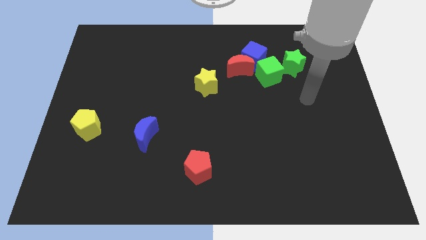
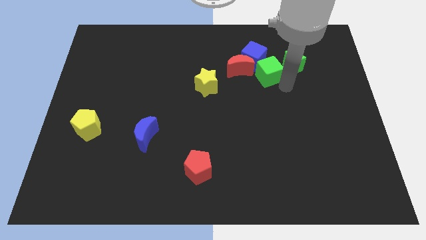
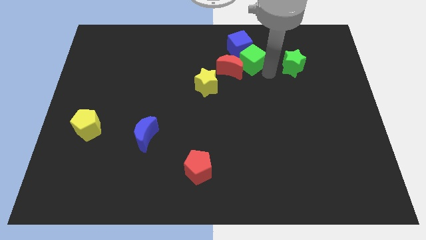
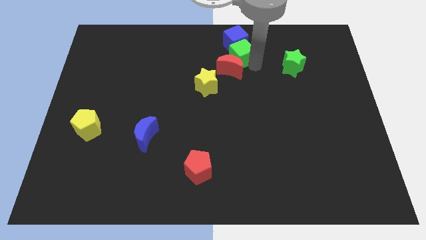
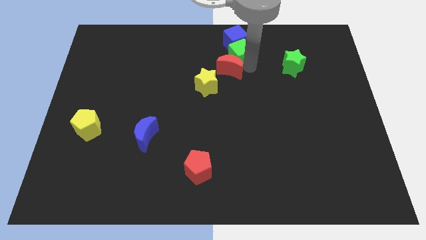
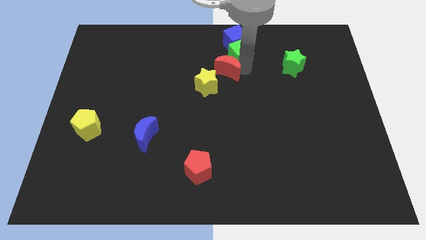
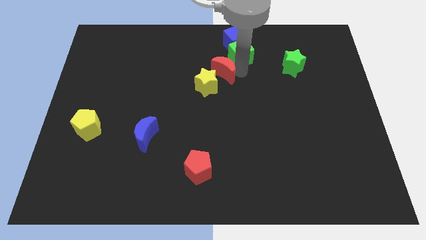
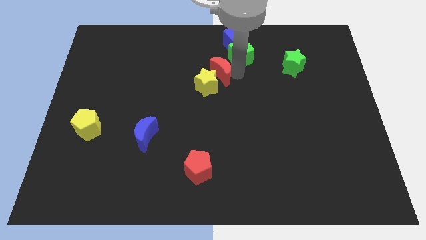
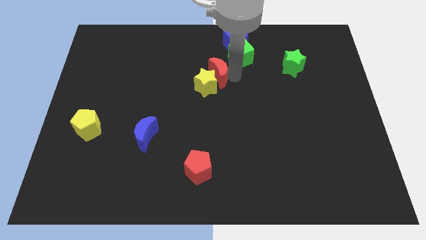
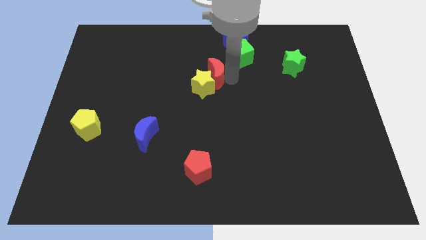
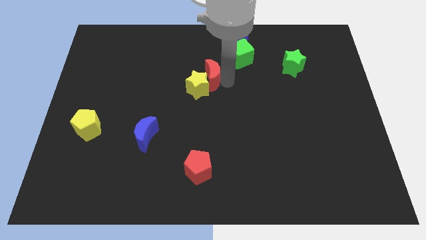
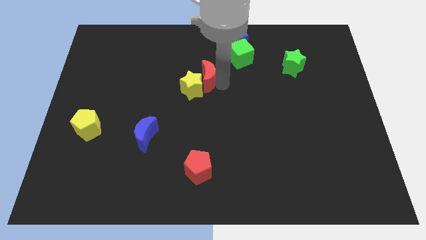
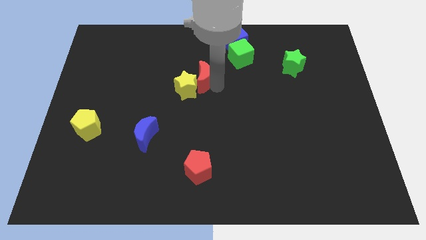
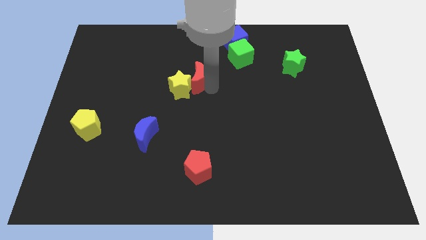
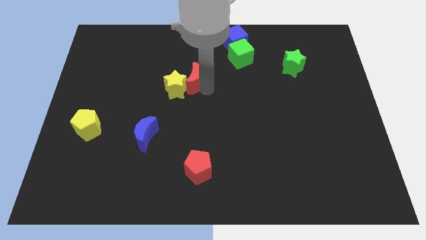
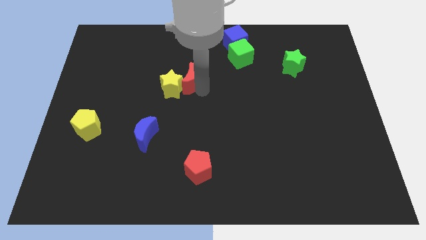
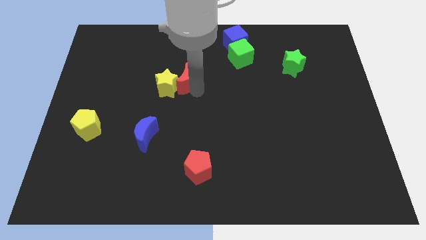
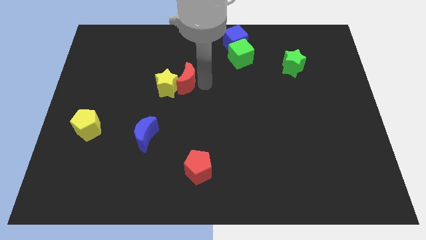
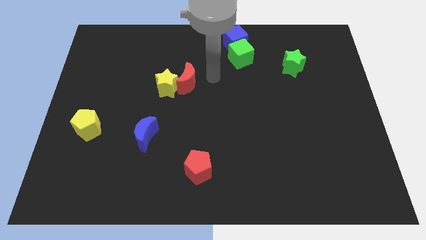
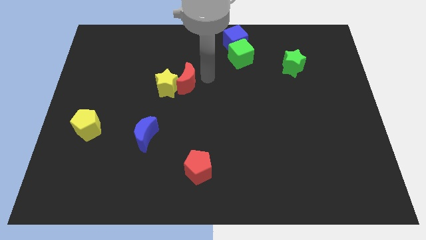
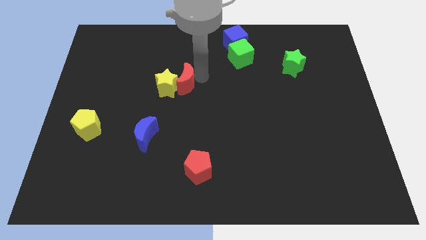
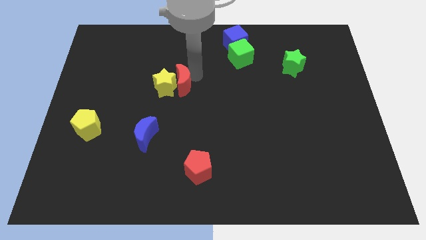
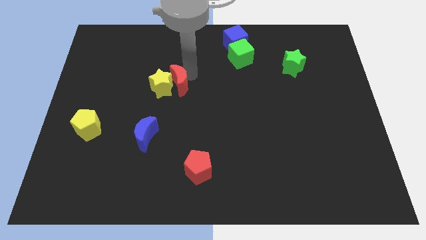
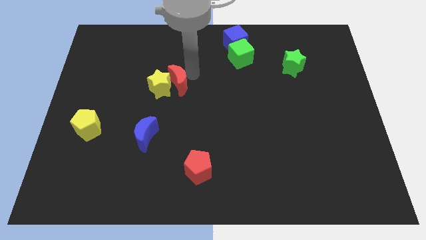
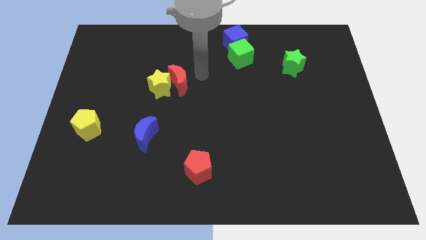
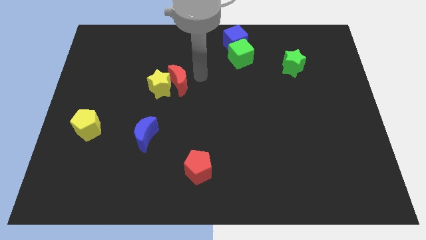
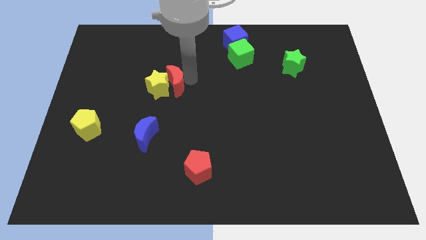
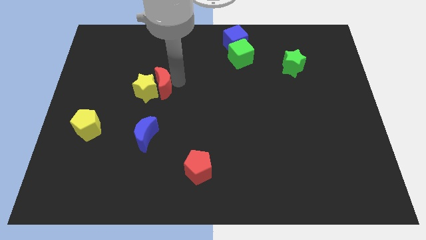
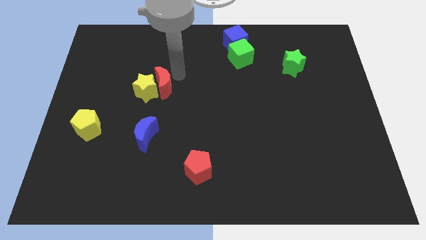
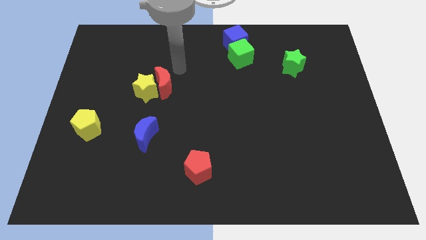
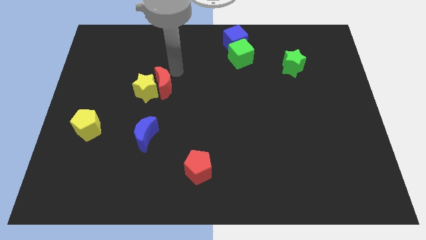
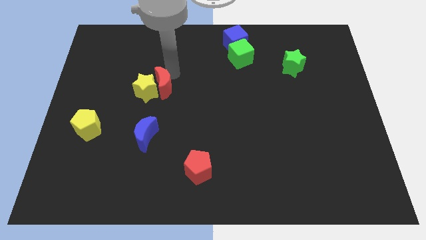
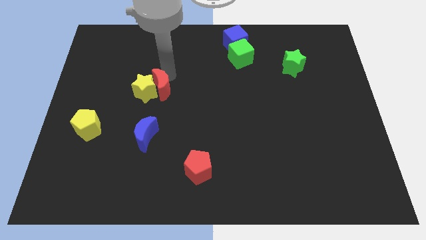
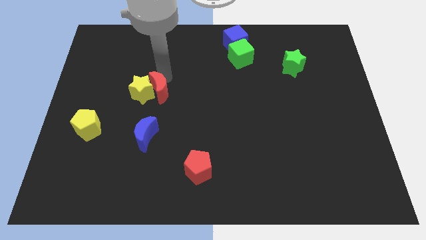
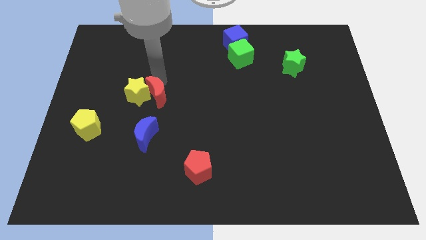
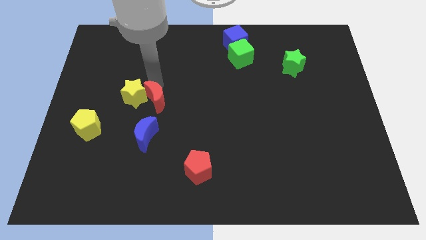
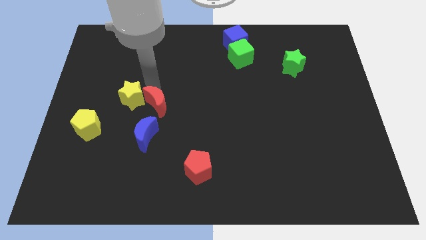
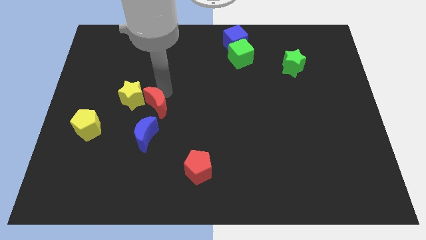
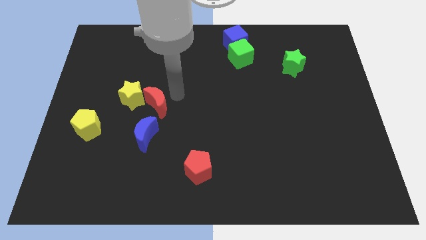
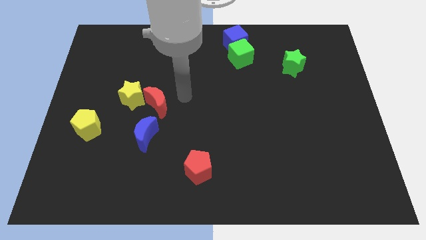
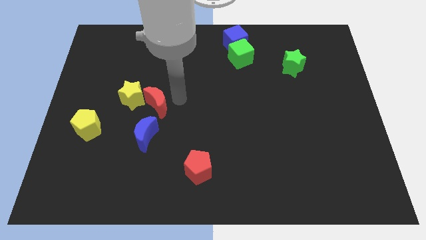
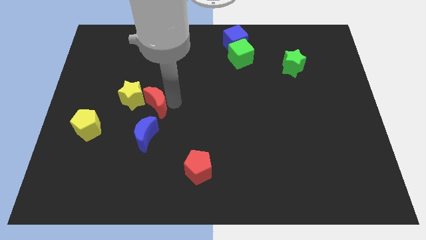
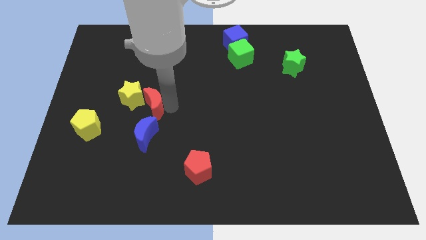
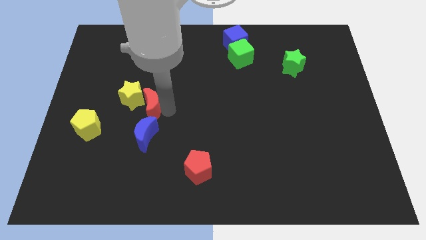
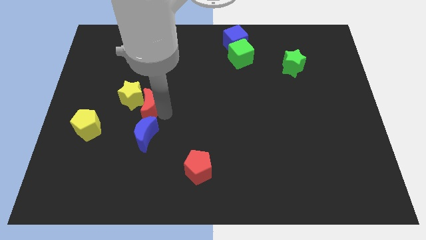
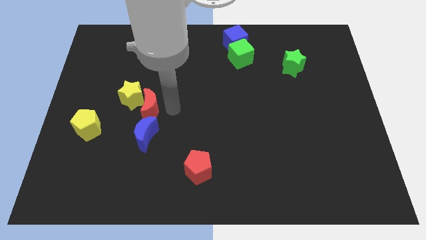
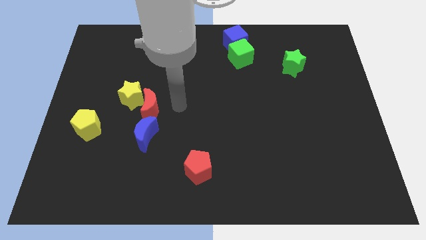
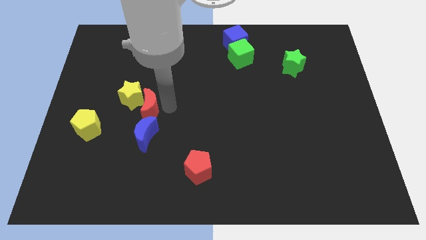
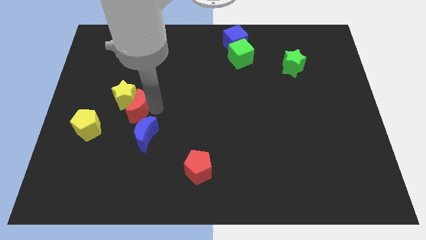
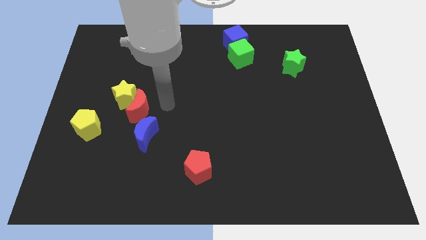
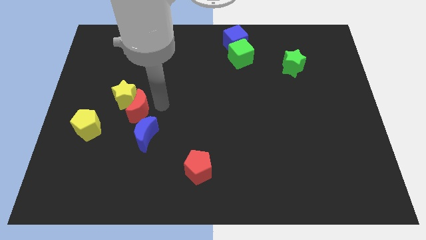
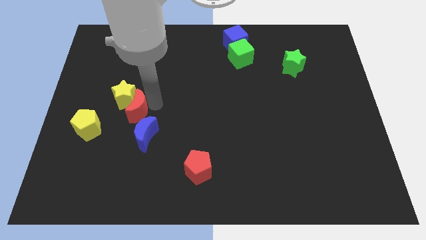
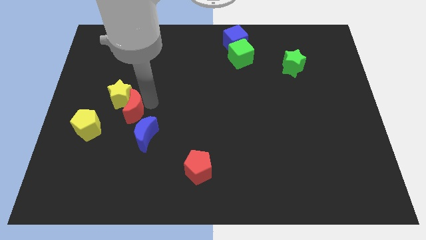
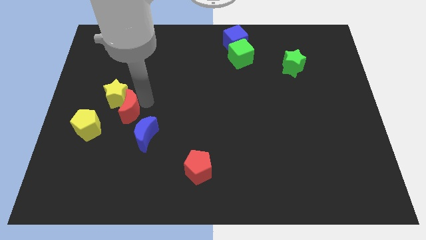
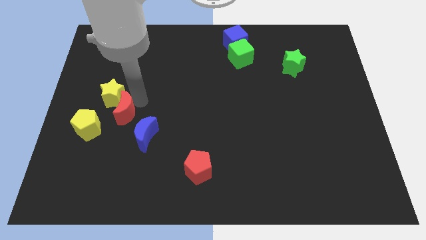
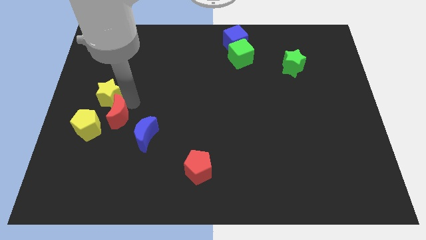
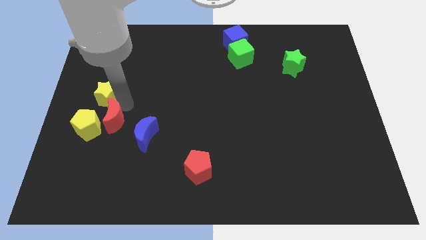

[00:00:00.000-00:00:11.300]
move the red moon towards the yellow pentagon

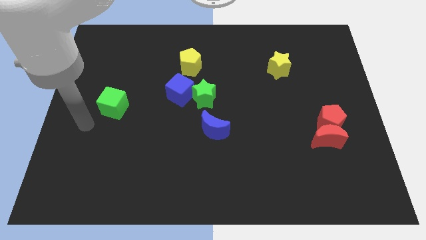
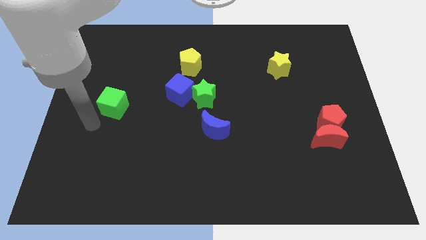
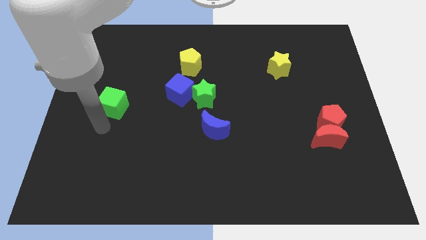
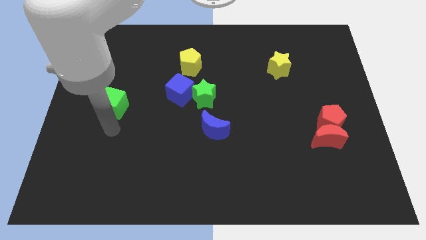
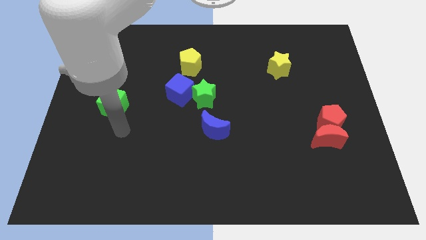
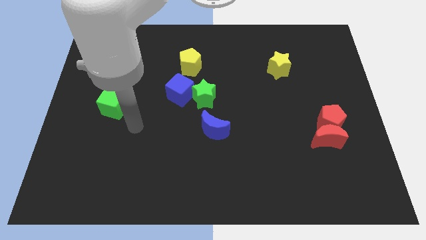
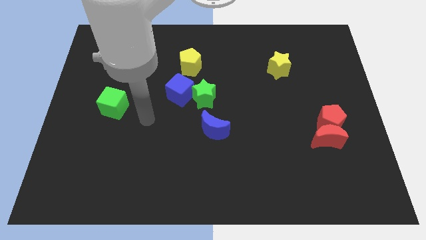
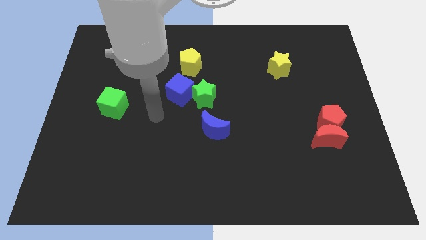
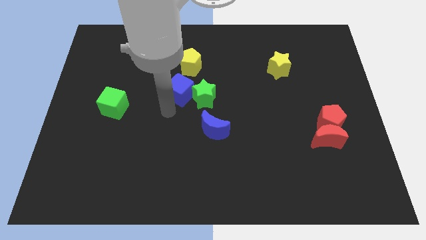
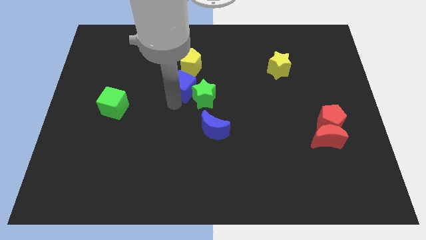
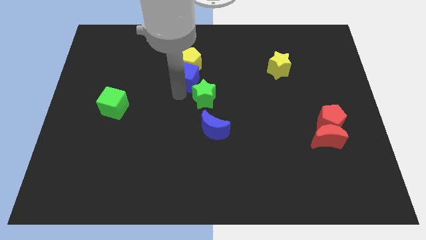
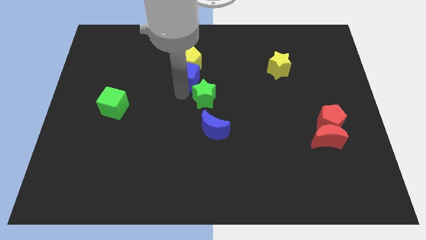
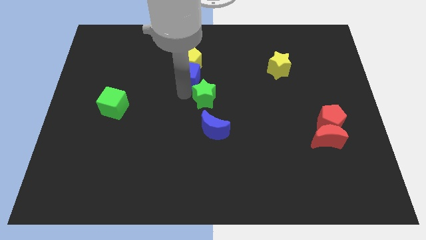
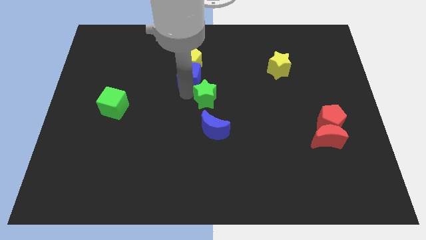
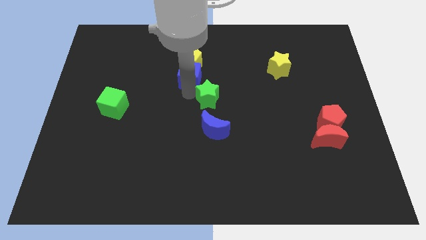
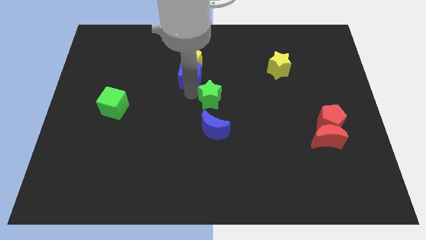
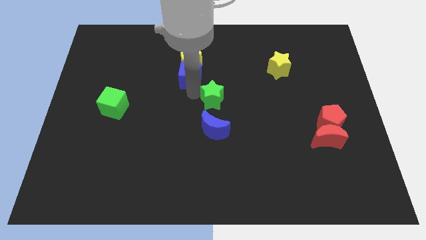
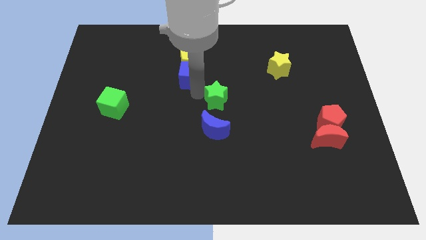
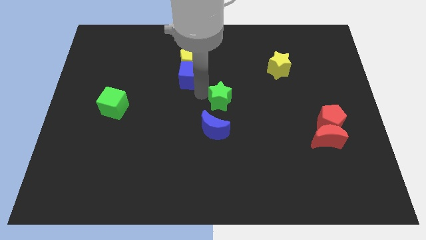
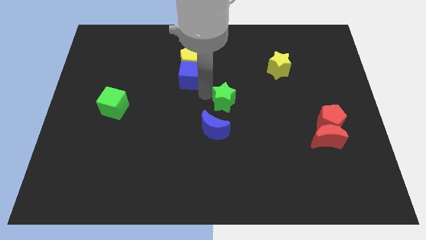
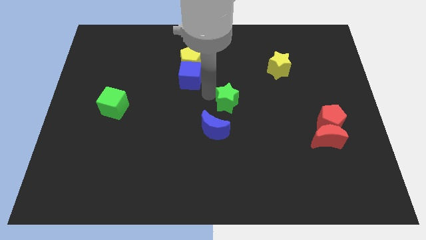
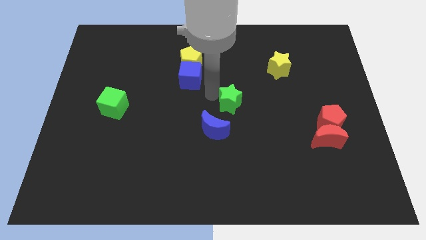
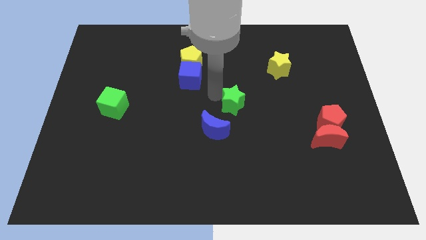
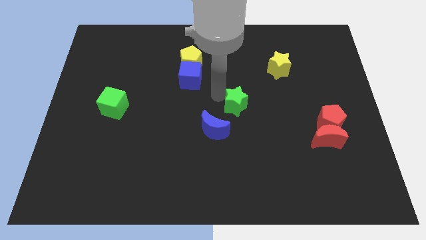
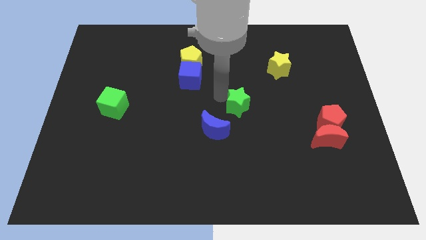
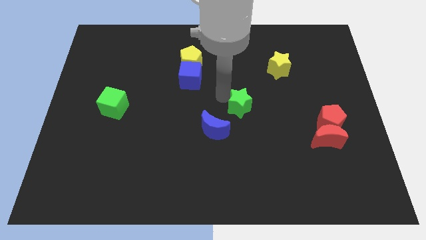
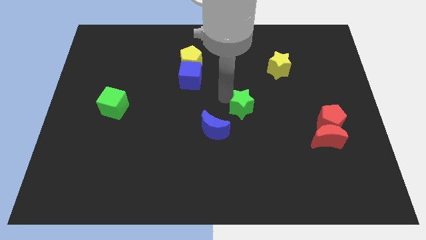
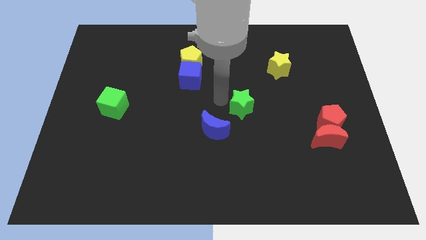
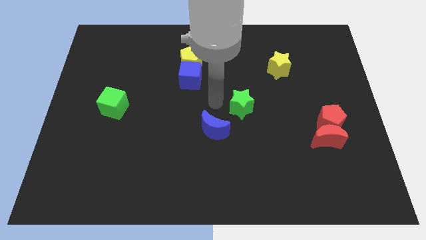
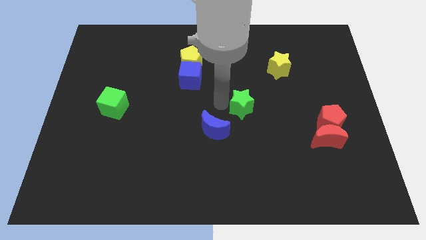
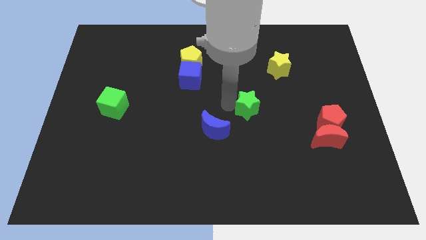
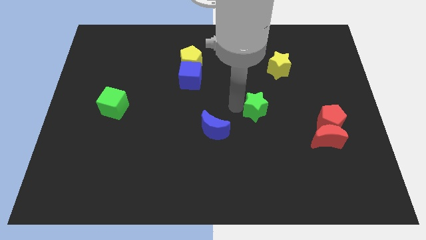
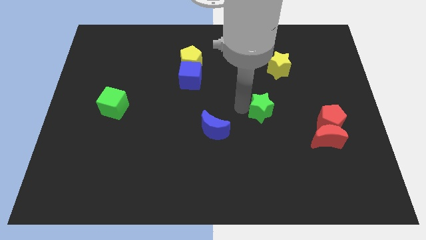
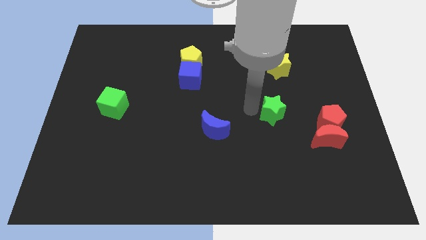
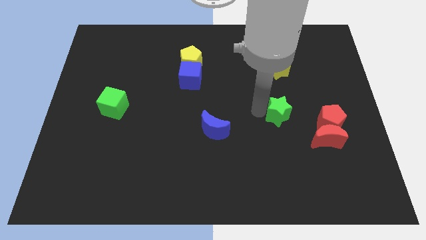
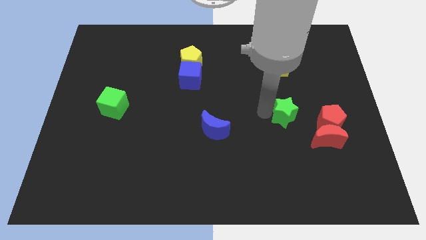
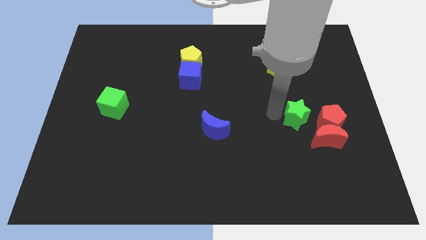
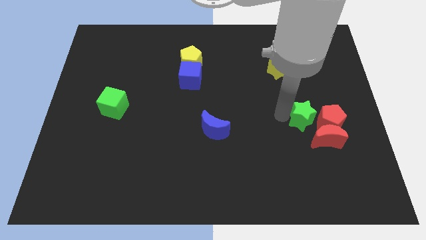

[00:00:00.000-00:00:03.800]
push the green star next to the red pentagon
